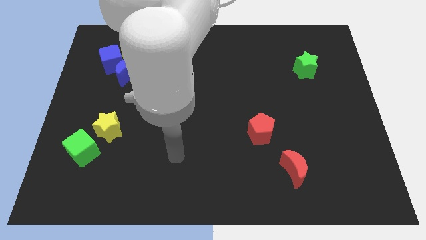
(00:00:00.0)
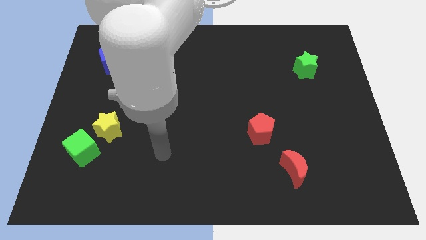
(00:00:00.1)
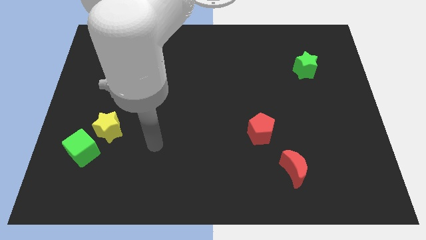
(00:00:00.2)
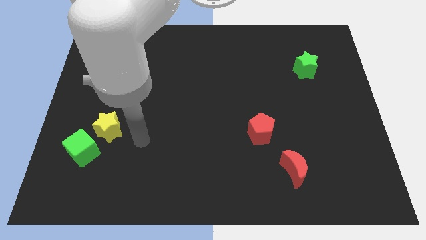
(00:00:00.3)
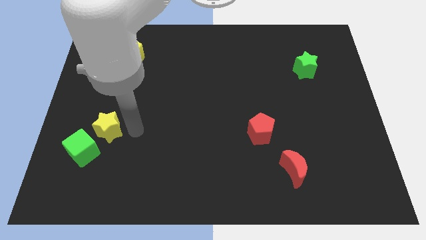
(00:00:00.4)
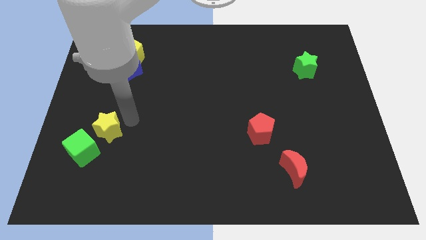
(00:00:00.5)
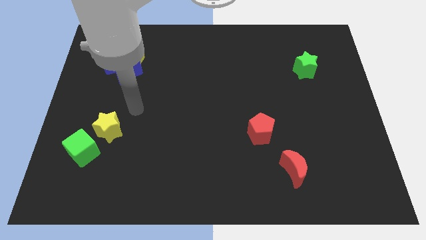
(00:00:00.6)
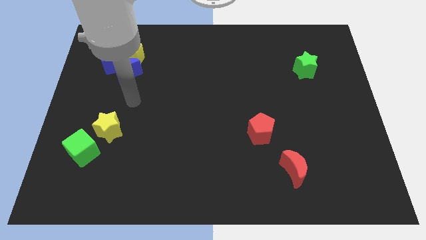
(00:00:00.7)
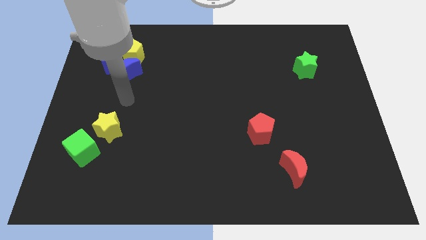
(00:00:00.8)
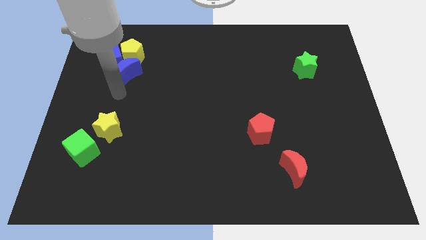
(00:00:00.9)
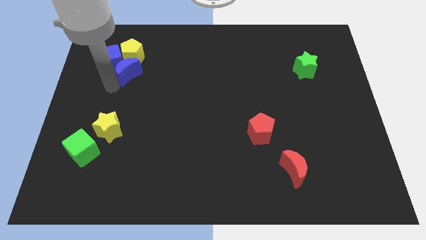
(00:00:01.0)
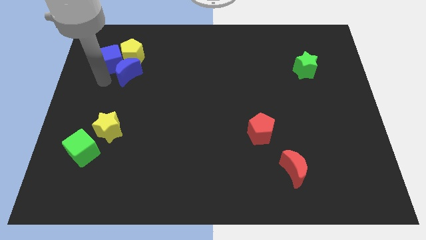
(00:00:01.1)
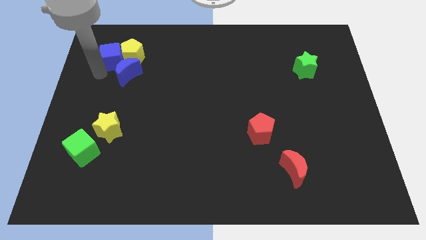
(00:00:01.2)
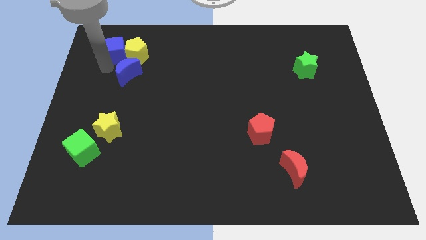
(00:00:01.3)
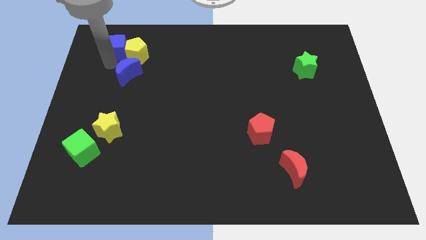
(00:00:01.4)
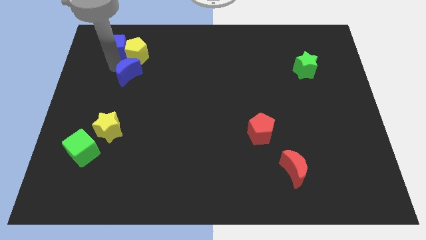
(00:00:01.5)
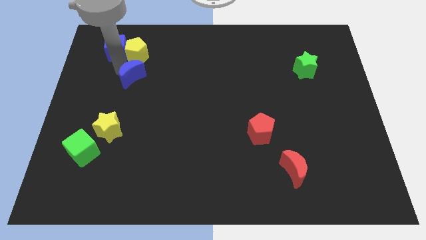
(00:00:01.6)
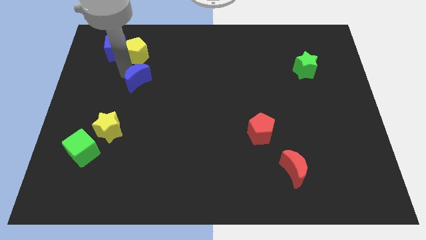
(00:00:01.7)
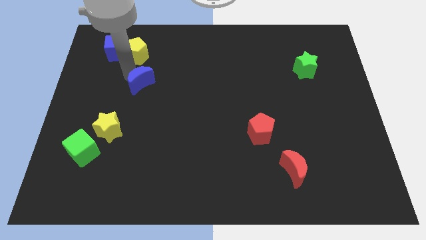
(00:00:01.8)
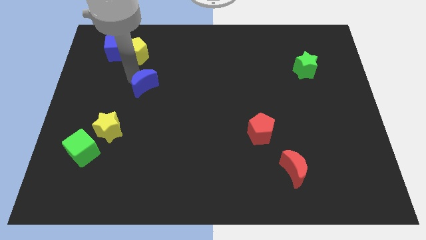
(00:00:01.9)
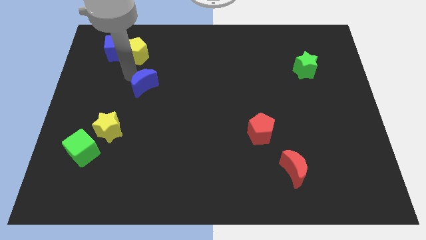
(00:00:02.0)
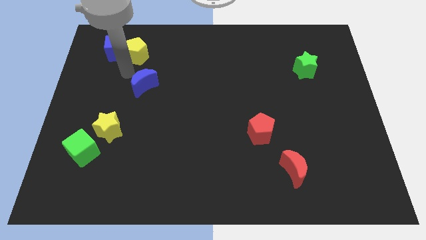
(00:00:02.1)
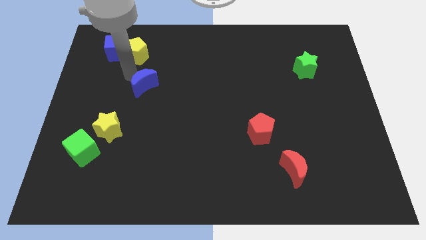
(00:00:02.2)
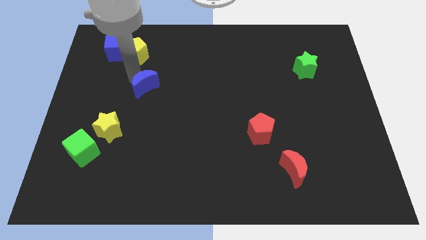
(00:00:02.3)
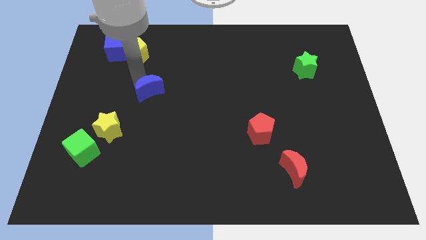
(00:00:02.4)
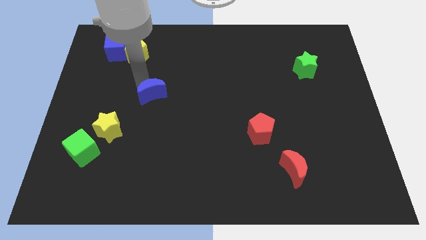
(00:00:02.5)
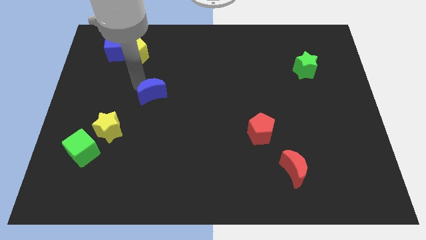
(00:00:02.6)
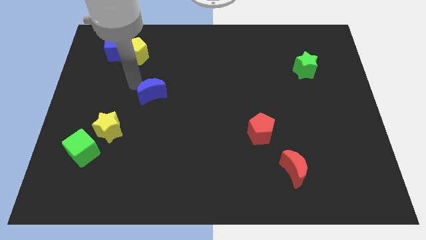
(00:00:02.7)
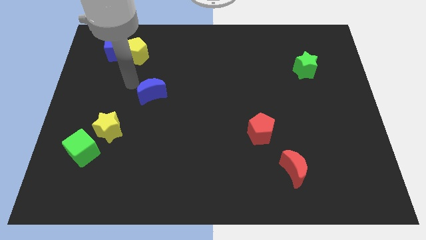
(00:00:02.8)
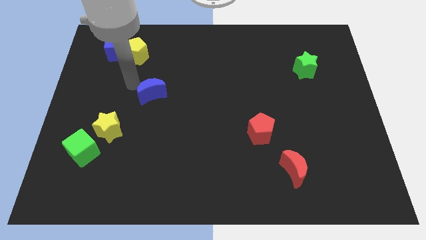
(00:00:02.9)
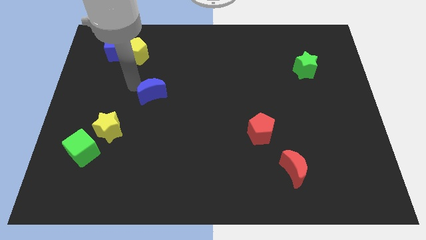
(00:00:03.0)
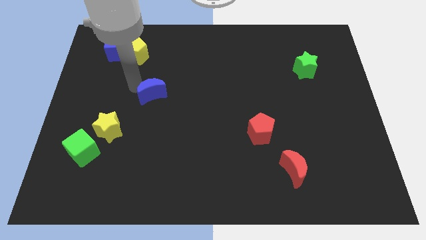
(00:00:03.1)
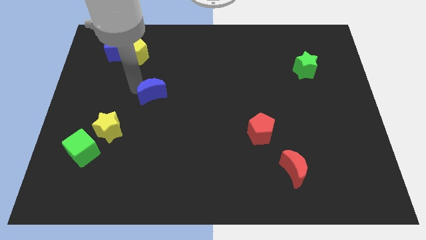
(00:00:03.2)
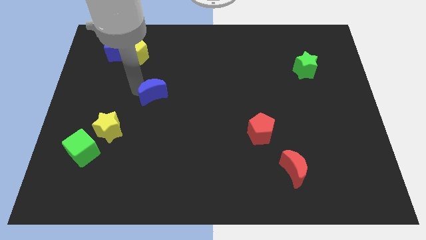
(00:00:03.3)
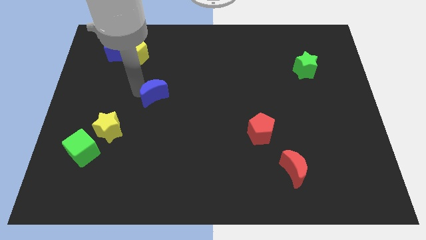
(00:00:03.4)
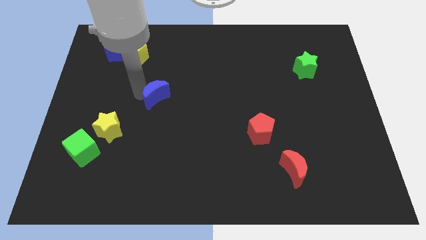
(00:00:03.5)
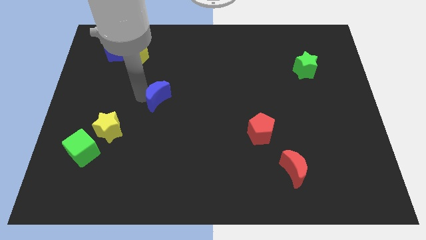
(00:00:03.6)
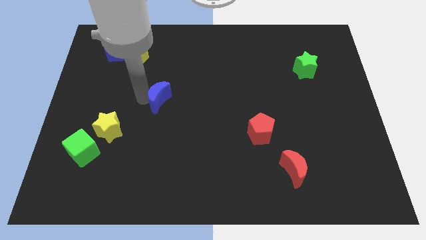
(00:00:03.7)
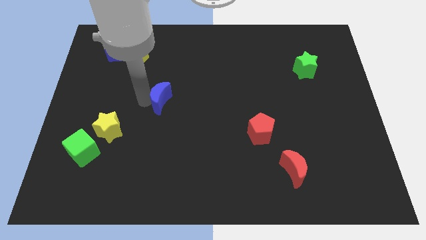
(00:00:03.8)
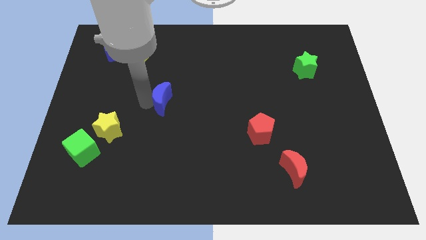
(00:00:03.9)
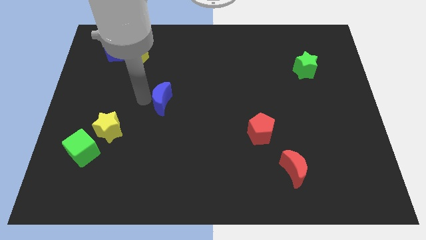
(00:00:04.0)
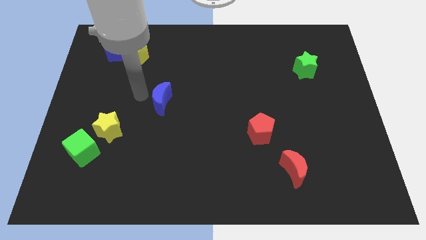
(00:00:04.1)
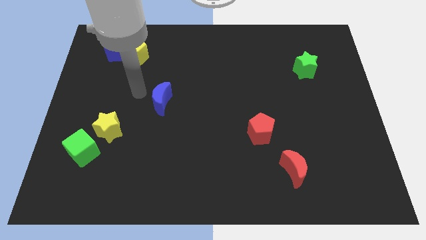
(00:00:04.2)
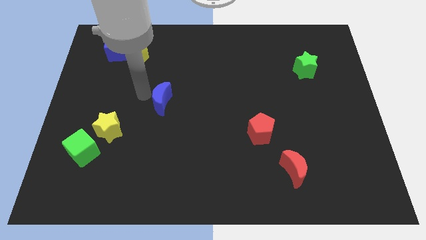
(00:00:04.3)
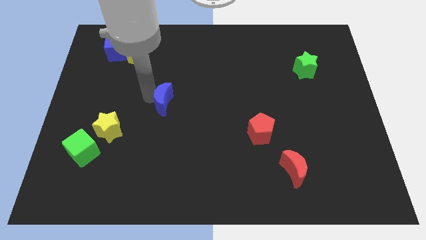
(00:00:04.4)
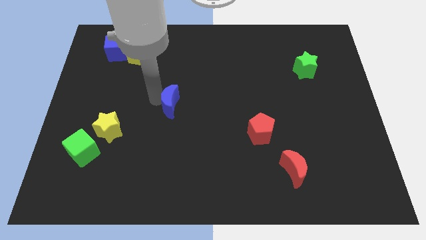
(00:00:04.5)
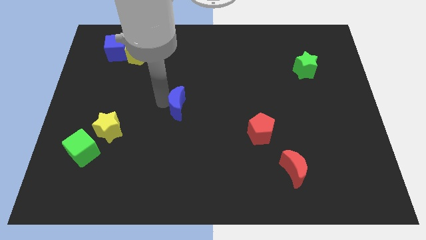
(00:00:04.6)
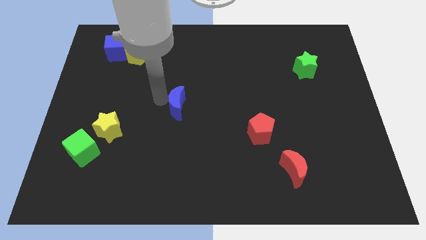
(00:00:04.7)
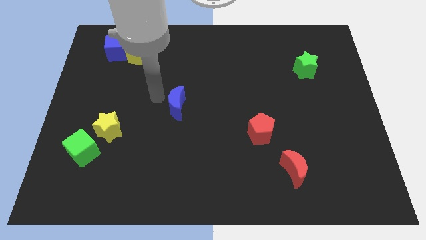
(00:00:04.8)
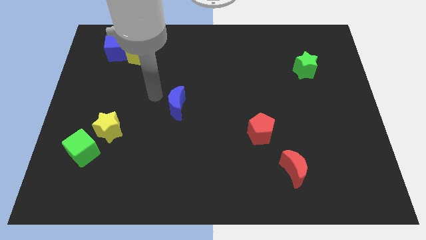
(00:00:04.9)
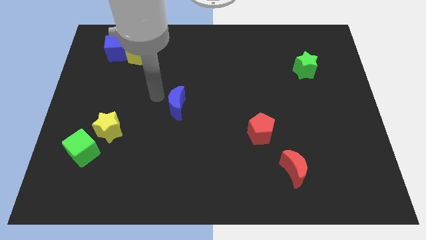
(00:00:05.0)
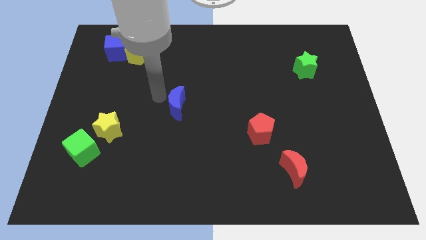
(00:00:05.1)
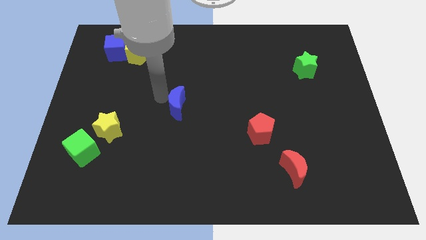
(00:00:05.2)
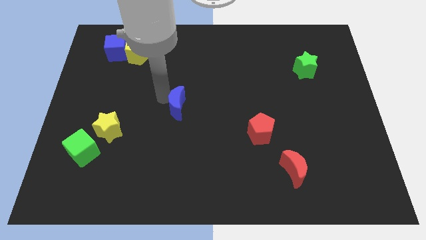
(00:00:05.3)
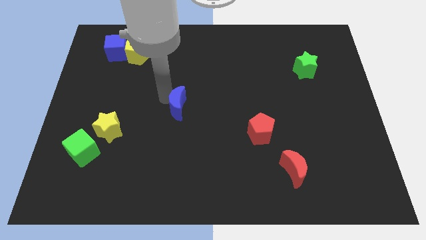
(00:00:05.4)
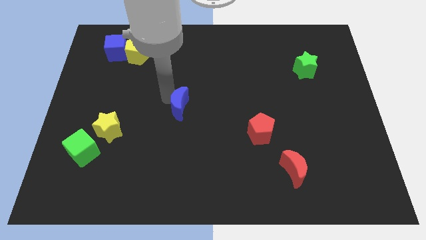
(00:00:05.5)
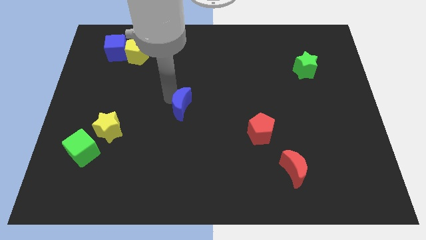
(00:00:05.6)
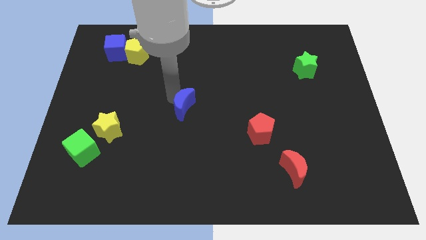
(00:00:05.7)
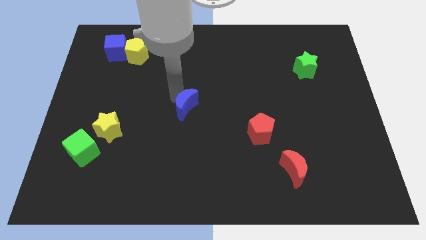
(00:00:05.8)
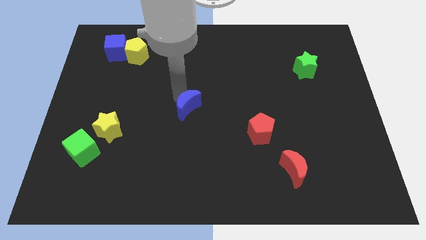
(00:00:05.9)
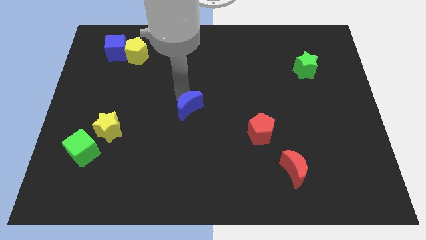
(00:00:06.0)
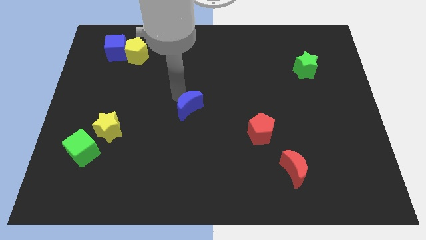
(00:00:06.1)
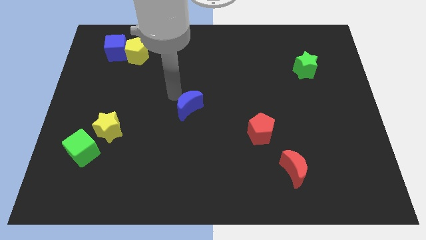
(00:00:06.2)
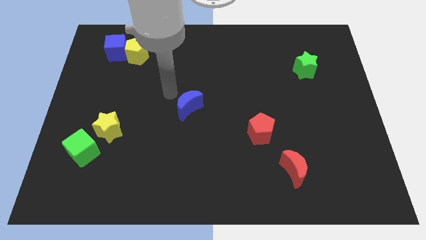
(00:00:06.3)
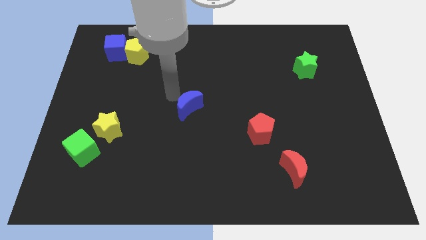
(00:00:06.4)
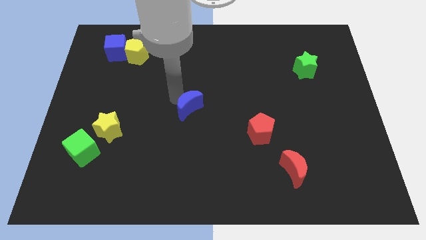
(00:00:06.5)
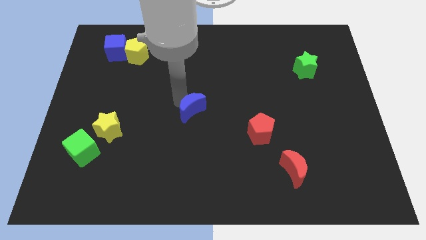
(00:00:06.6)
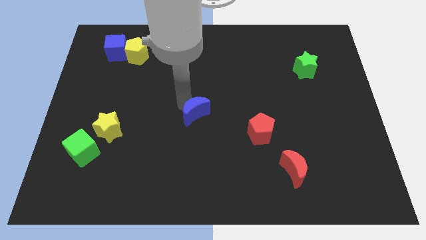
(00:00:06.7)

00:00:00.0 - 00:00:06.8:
slide the blue moon down and right

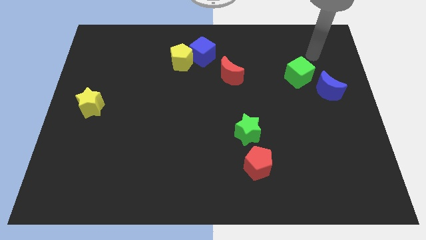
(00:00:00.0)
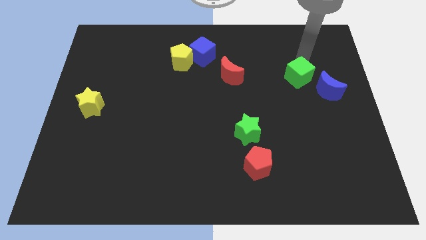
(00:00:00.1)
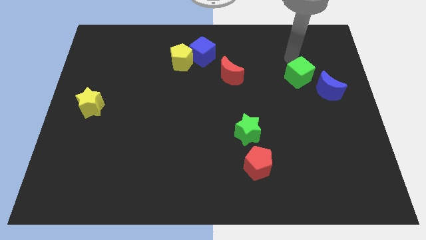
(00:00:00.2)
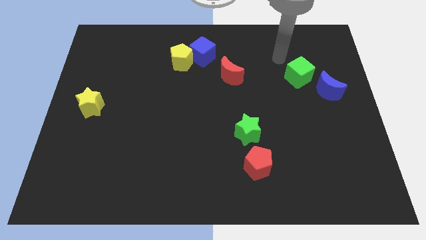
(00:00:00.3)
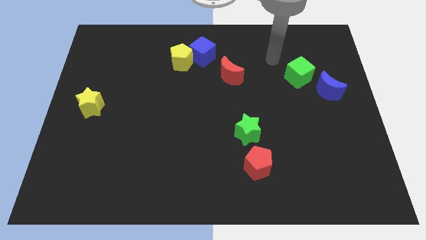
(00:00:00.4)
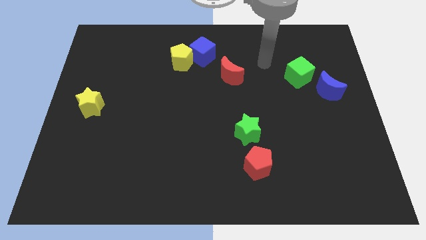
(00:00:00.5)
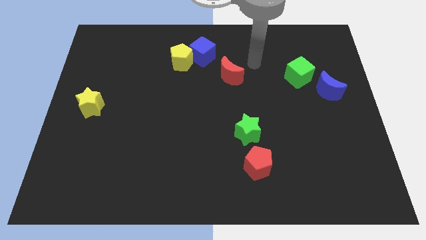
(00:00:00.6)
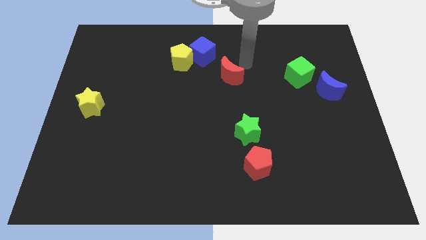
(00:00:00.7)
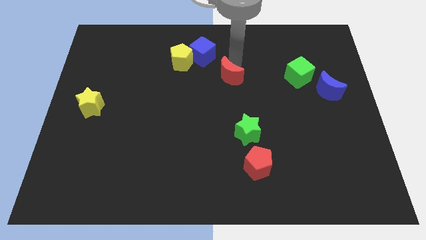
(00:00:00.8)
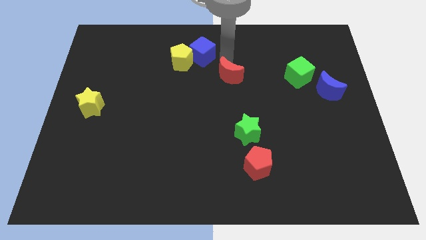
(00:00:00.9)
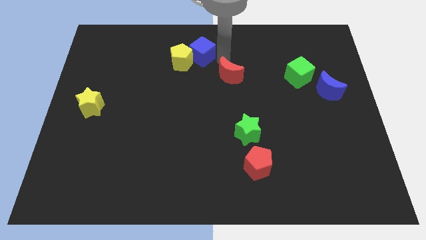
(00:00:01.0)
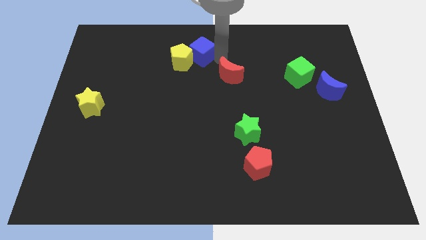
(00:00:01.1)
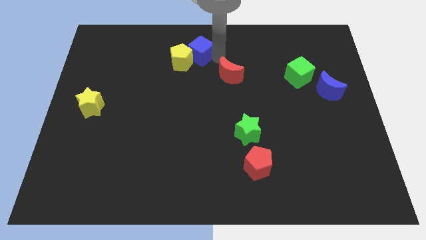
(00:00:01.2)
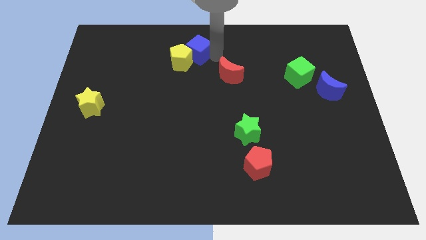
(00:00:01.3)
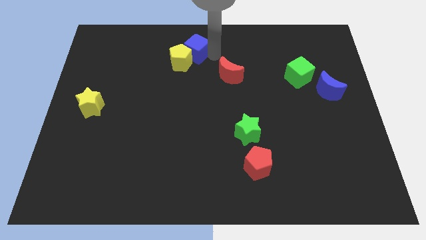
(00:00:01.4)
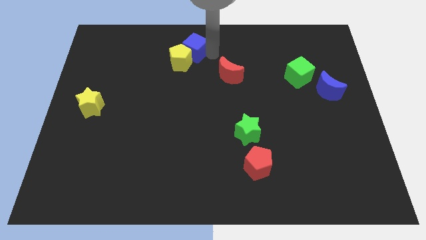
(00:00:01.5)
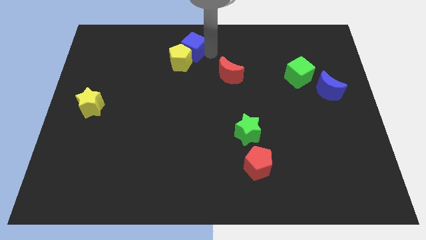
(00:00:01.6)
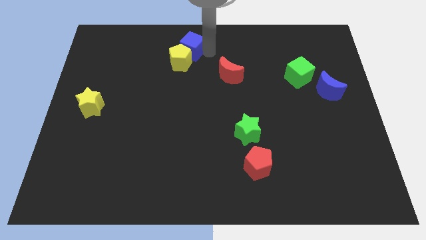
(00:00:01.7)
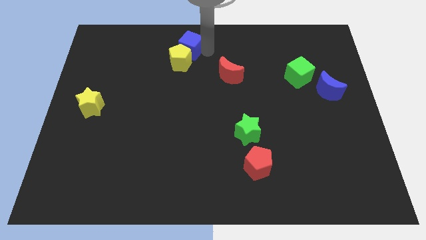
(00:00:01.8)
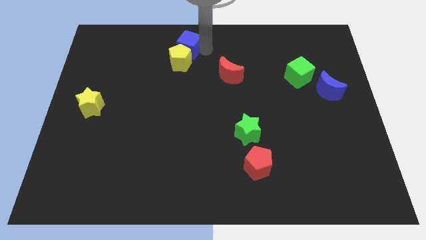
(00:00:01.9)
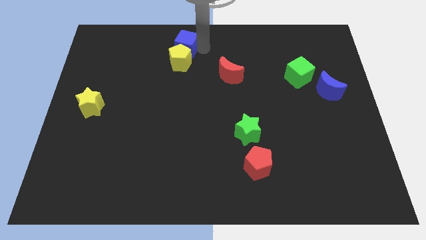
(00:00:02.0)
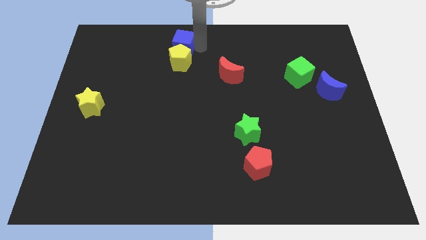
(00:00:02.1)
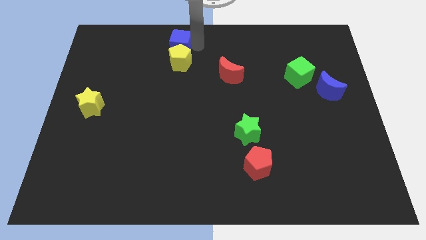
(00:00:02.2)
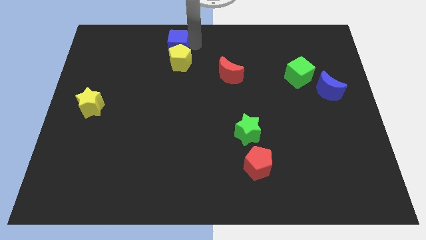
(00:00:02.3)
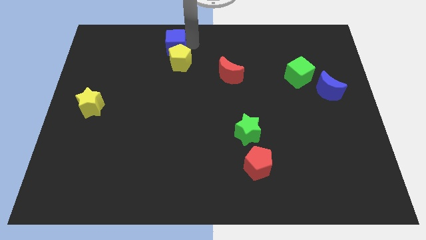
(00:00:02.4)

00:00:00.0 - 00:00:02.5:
slightly slide the blue cube to the left
